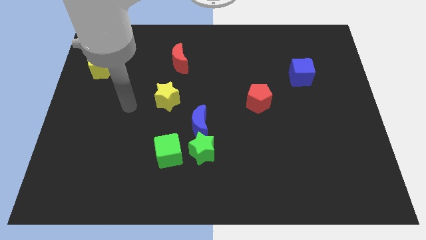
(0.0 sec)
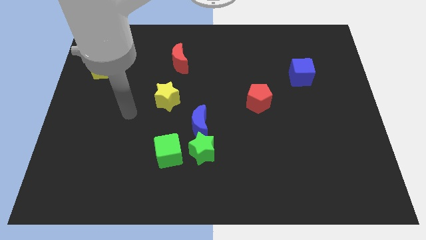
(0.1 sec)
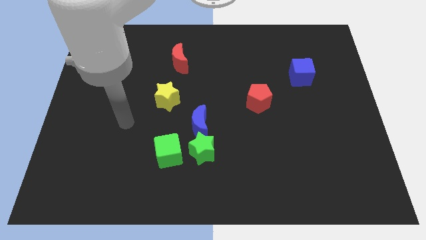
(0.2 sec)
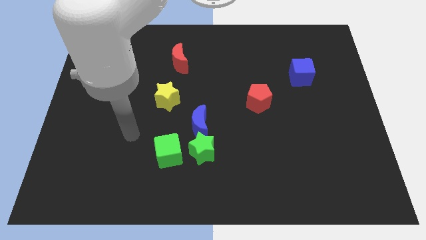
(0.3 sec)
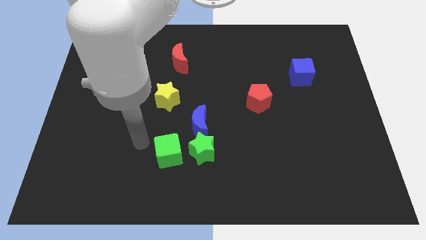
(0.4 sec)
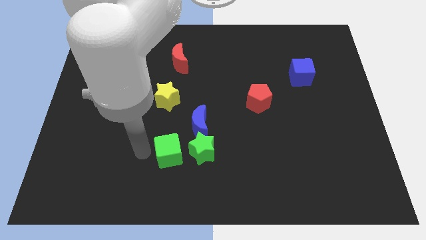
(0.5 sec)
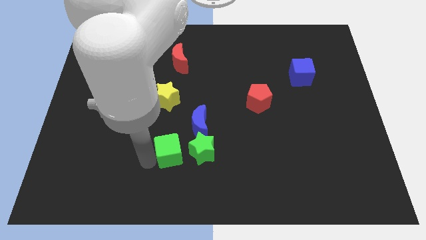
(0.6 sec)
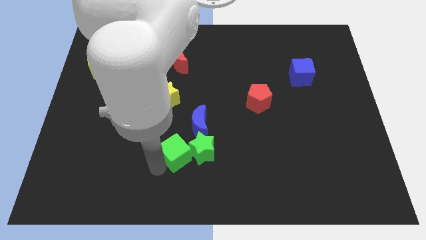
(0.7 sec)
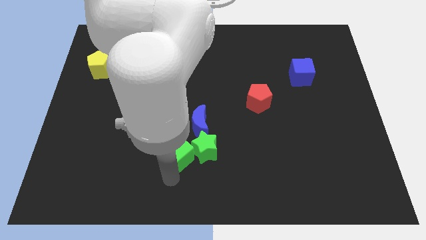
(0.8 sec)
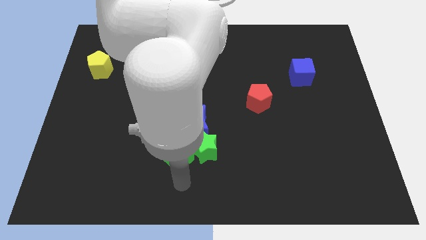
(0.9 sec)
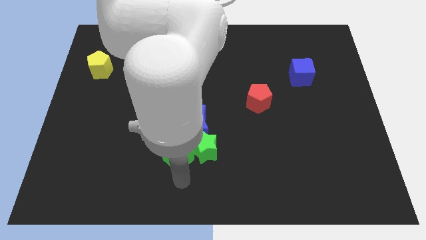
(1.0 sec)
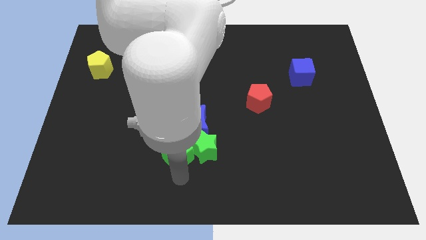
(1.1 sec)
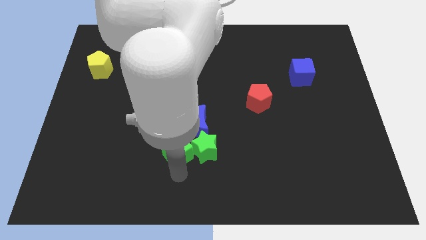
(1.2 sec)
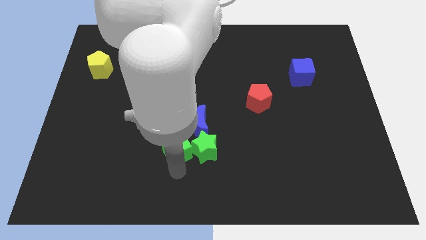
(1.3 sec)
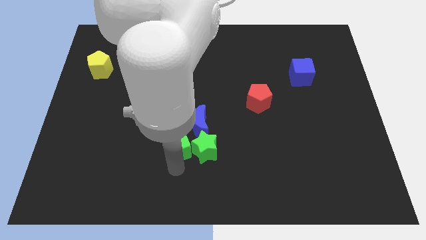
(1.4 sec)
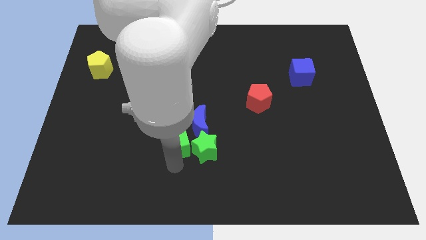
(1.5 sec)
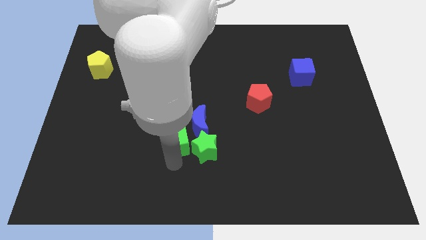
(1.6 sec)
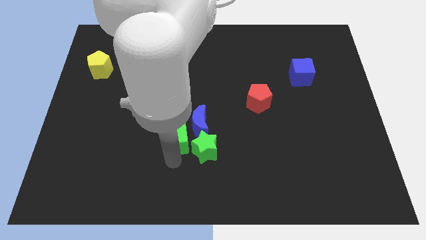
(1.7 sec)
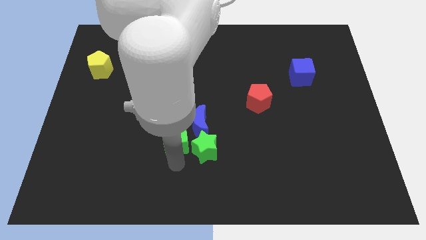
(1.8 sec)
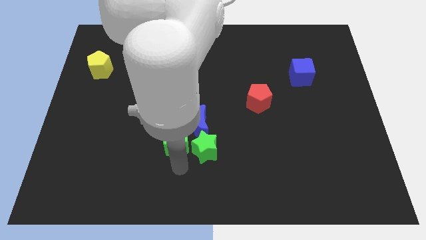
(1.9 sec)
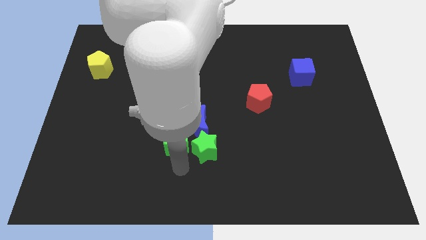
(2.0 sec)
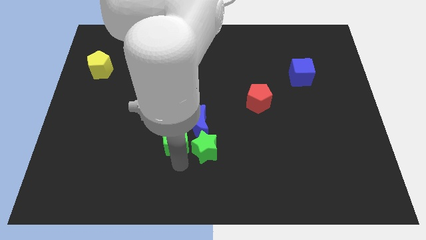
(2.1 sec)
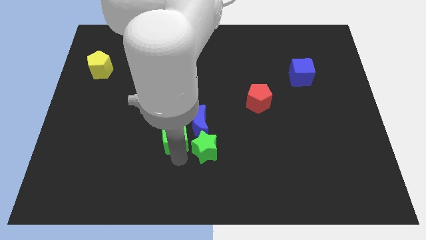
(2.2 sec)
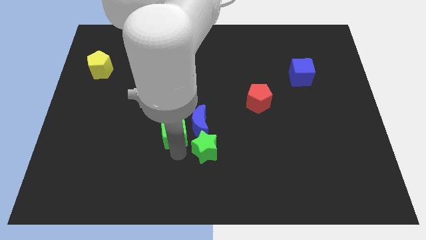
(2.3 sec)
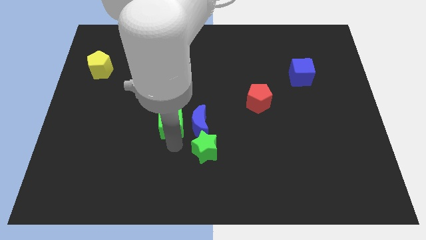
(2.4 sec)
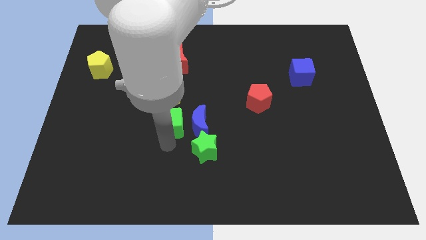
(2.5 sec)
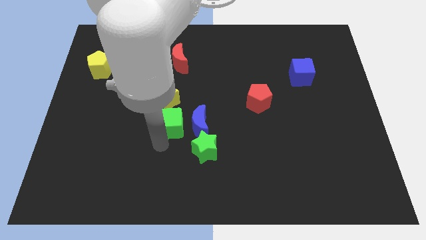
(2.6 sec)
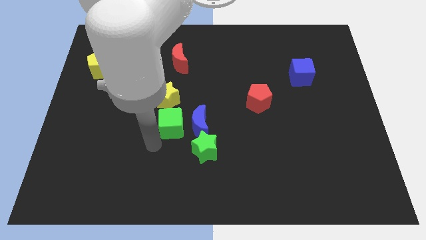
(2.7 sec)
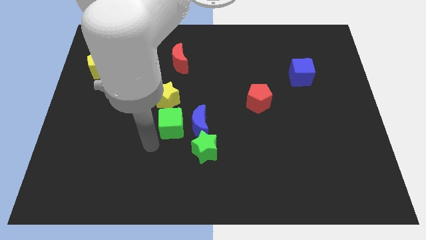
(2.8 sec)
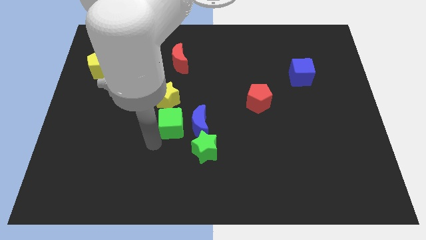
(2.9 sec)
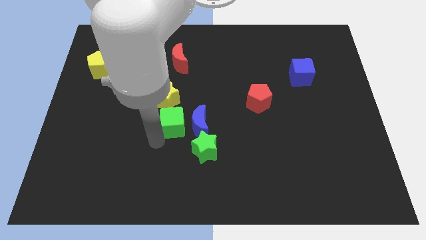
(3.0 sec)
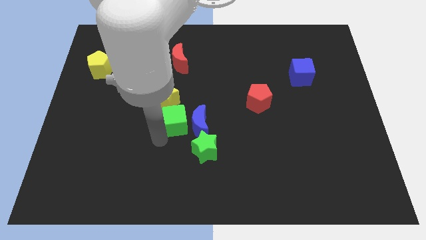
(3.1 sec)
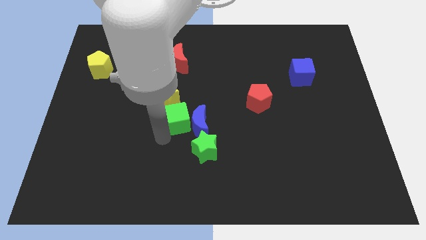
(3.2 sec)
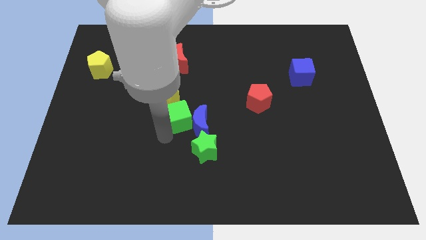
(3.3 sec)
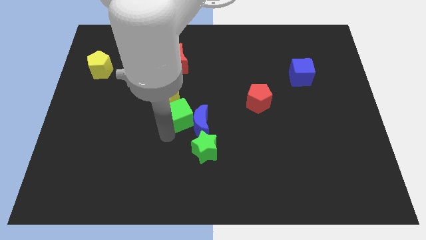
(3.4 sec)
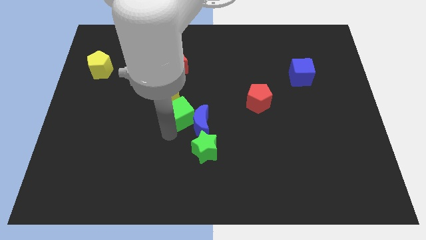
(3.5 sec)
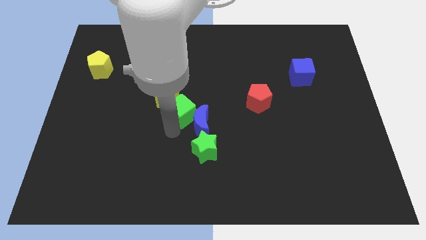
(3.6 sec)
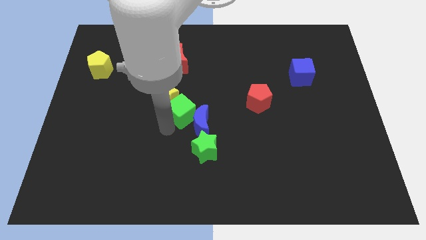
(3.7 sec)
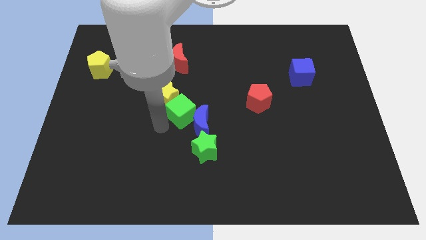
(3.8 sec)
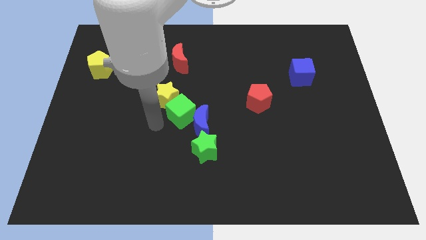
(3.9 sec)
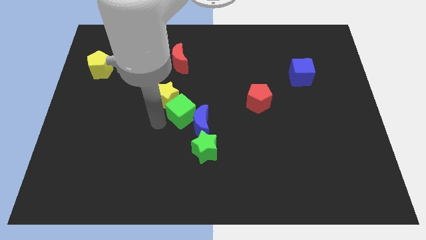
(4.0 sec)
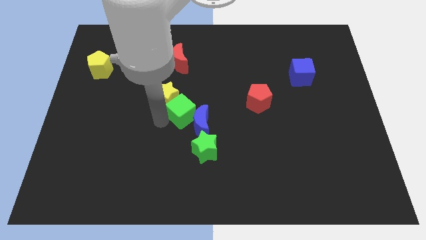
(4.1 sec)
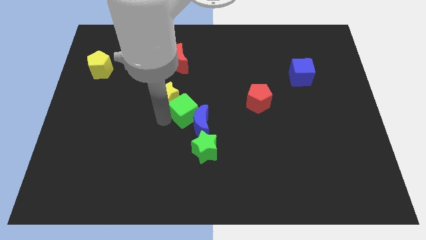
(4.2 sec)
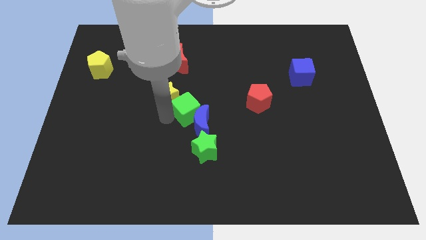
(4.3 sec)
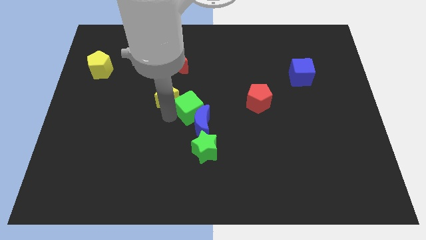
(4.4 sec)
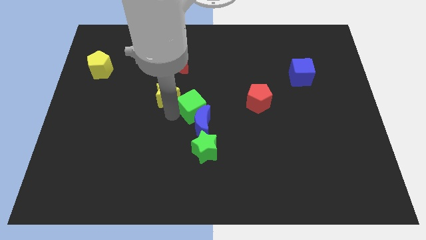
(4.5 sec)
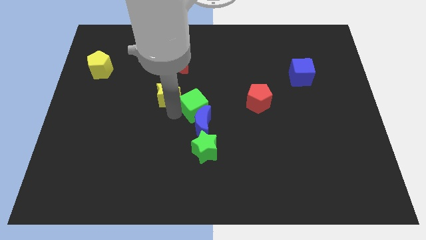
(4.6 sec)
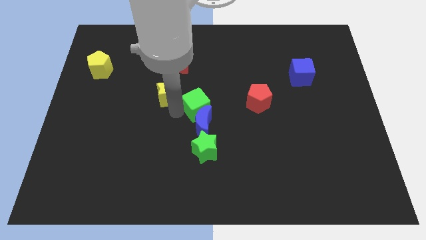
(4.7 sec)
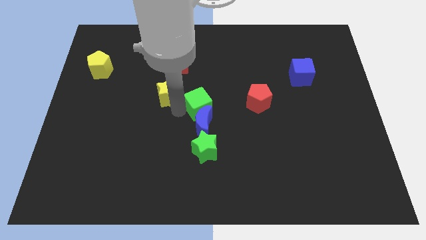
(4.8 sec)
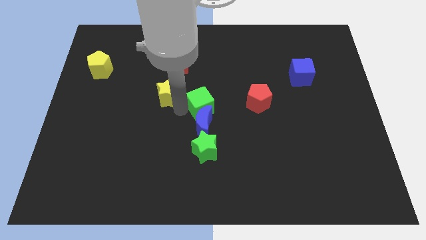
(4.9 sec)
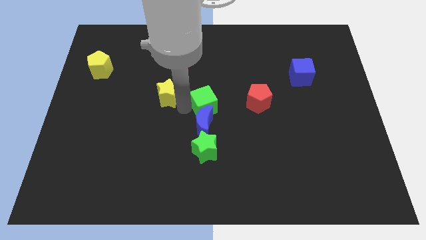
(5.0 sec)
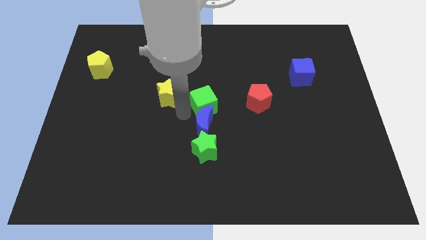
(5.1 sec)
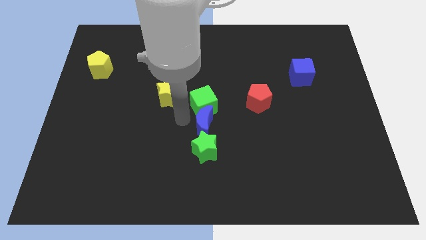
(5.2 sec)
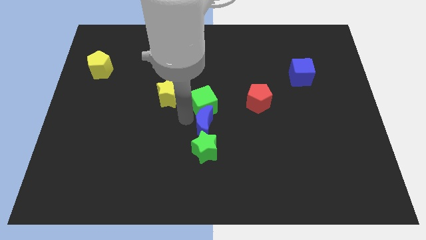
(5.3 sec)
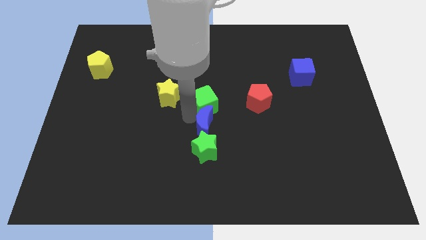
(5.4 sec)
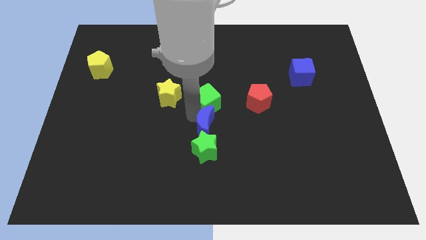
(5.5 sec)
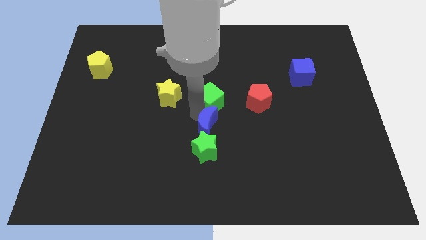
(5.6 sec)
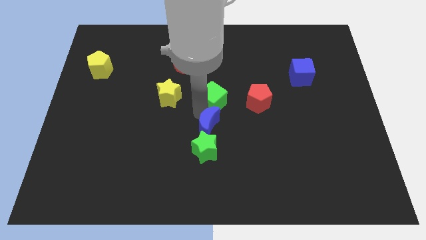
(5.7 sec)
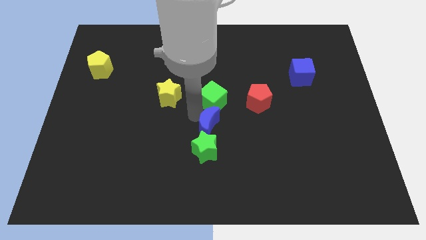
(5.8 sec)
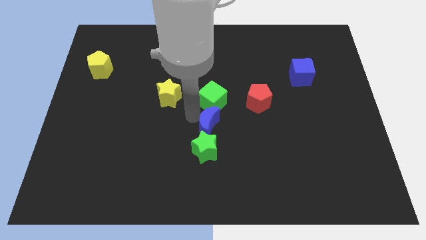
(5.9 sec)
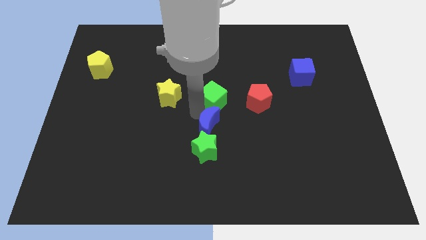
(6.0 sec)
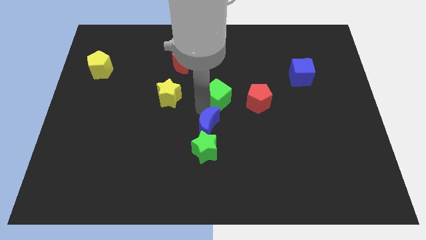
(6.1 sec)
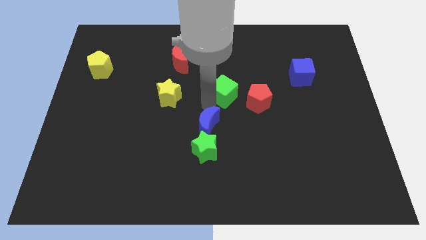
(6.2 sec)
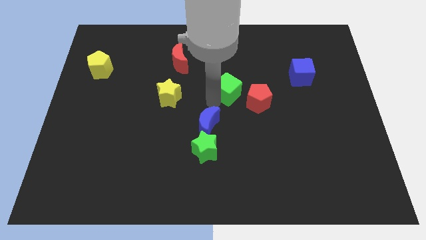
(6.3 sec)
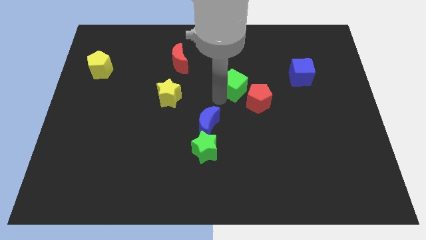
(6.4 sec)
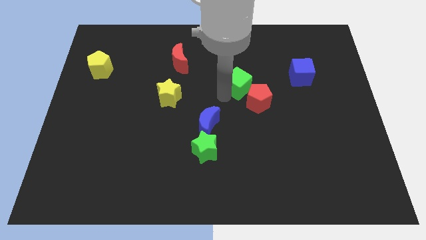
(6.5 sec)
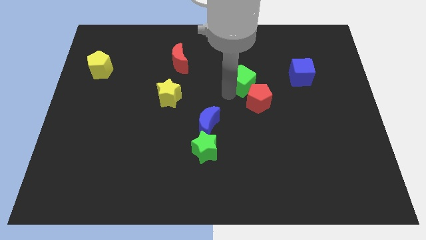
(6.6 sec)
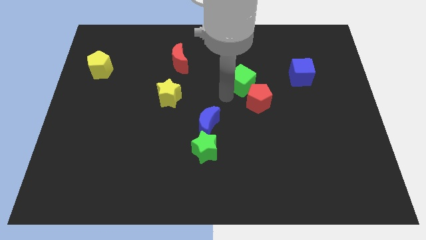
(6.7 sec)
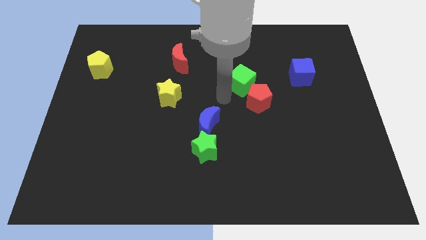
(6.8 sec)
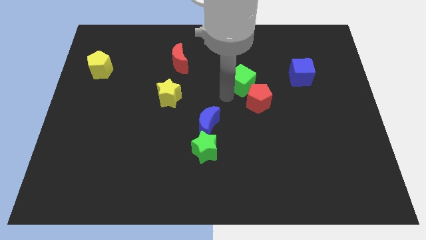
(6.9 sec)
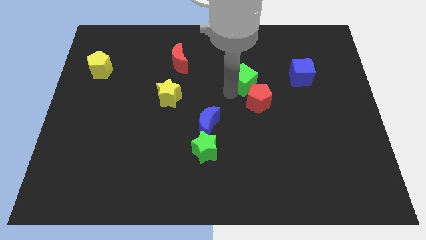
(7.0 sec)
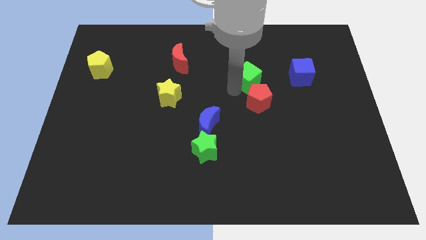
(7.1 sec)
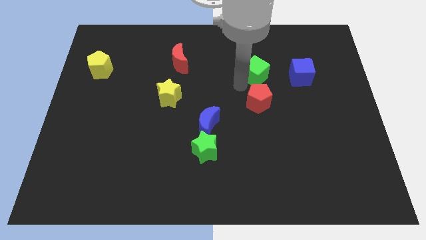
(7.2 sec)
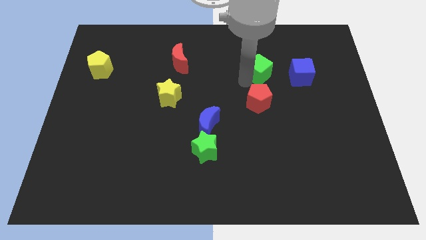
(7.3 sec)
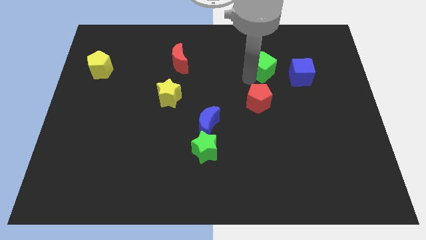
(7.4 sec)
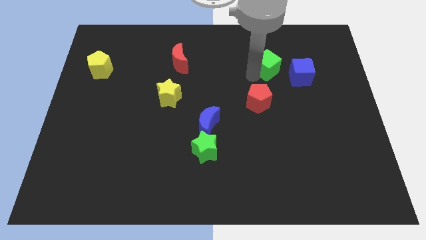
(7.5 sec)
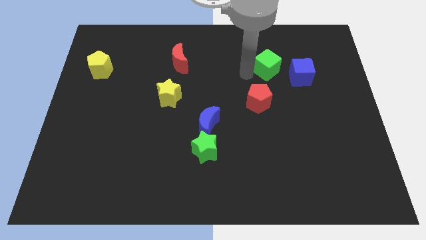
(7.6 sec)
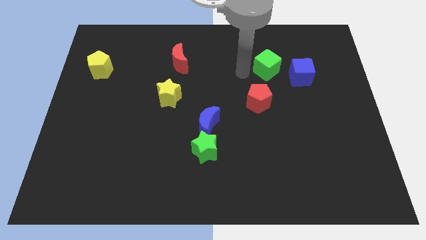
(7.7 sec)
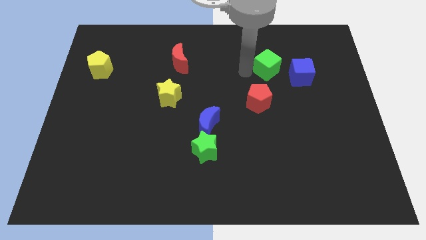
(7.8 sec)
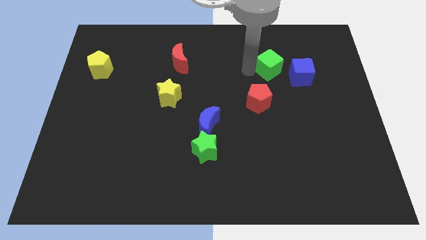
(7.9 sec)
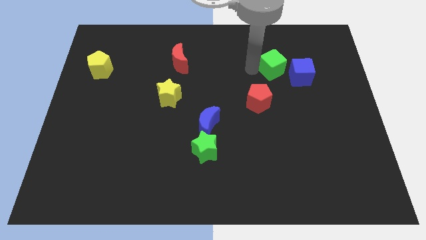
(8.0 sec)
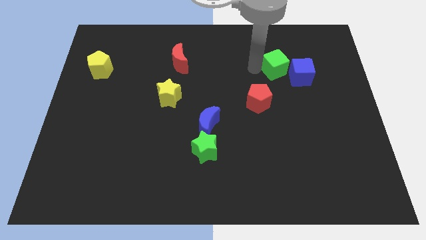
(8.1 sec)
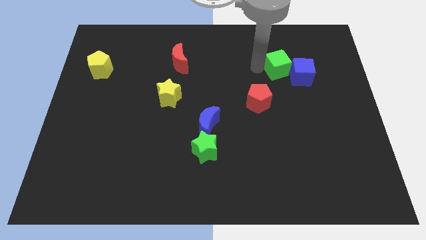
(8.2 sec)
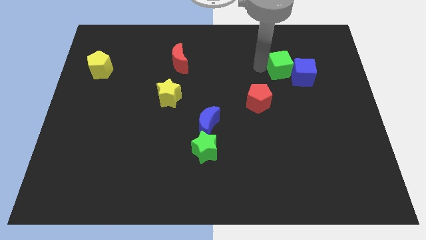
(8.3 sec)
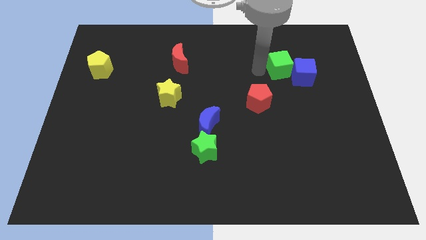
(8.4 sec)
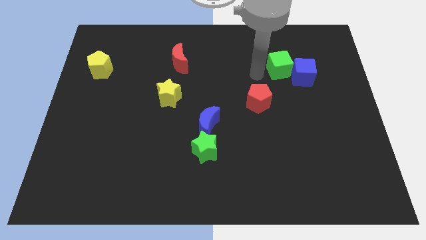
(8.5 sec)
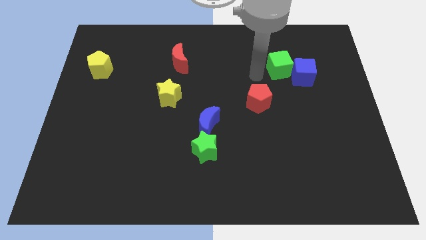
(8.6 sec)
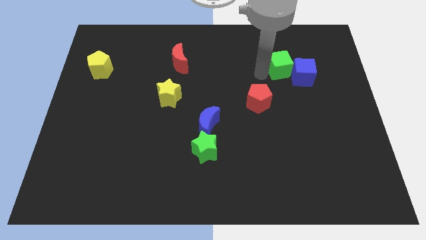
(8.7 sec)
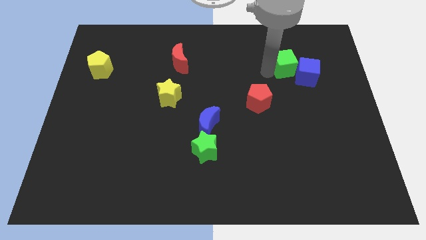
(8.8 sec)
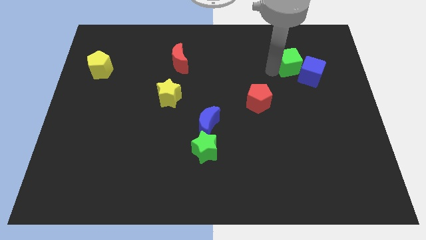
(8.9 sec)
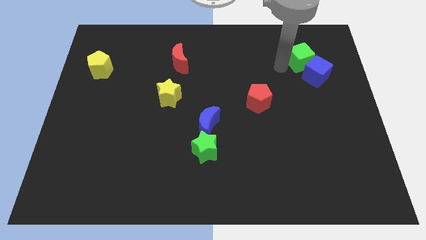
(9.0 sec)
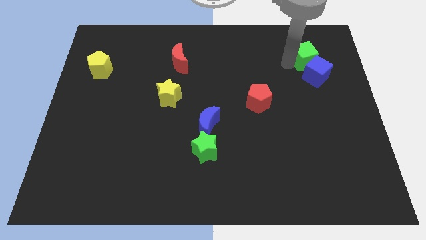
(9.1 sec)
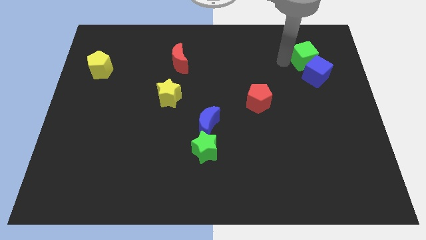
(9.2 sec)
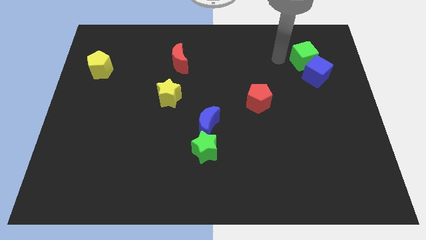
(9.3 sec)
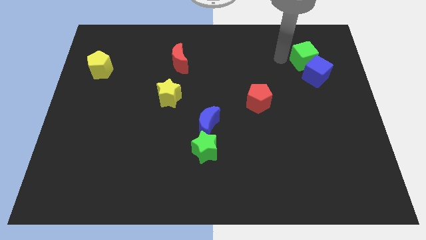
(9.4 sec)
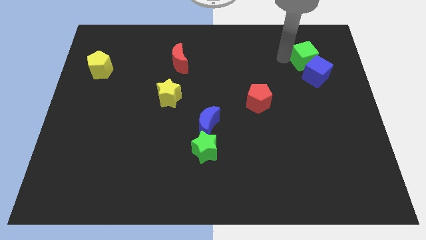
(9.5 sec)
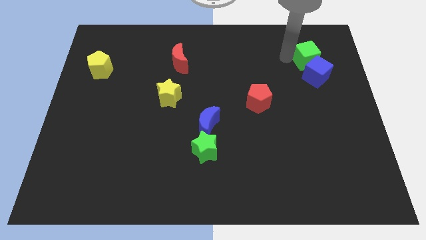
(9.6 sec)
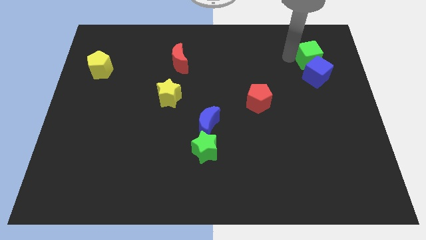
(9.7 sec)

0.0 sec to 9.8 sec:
put the green cube to the top right side of the blue cube
